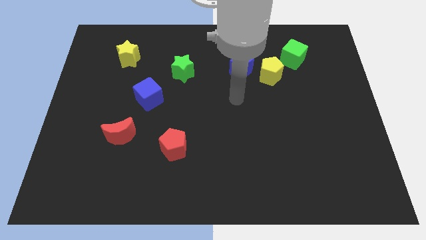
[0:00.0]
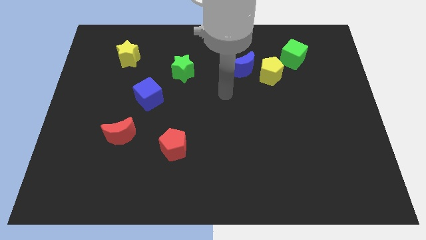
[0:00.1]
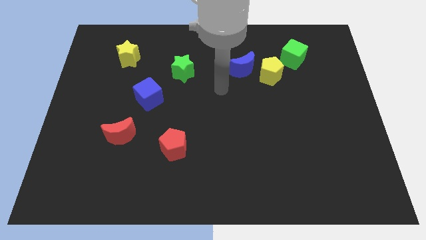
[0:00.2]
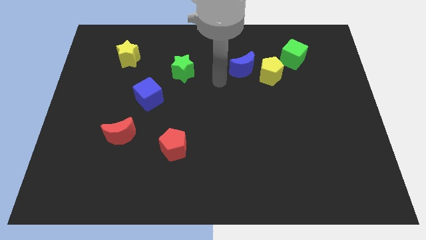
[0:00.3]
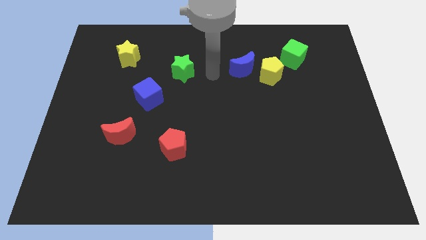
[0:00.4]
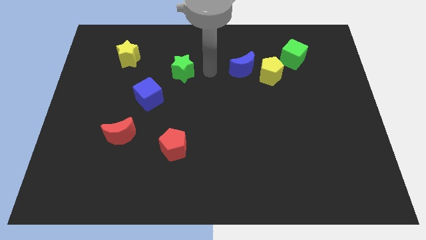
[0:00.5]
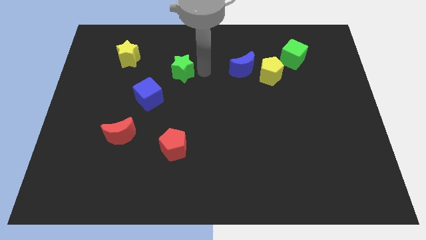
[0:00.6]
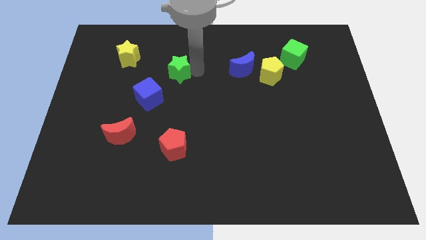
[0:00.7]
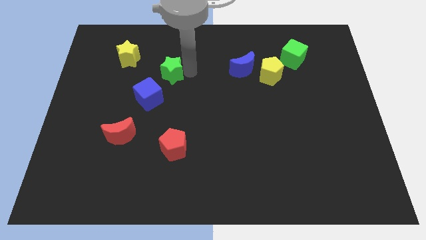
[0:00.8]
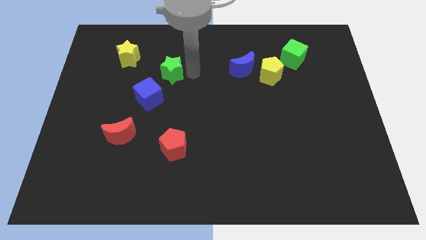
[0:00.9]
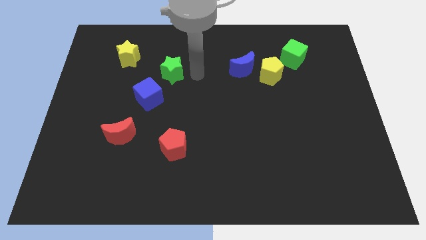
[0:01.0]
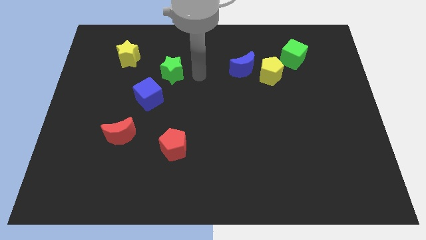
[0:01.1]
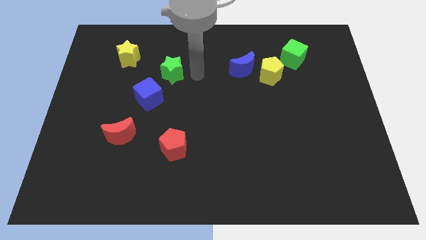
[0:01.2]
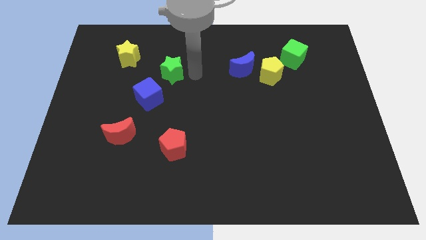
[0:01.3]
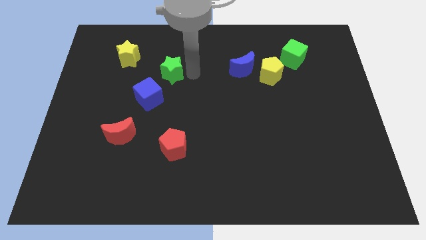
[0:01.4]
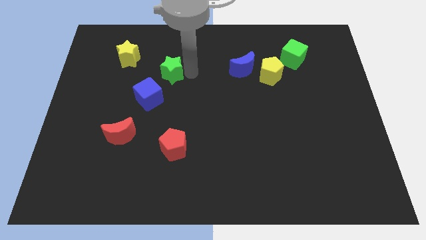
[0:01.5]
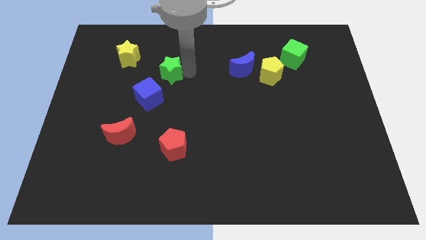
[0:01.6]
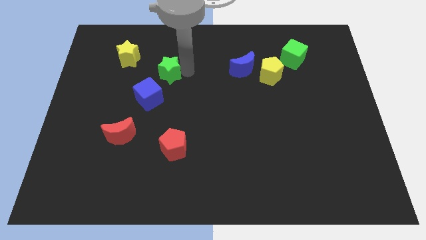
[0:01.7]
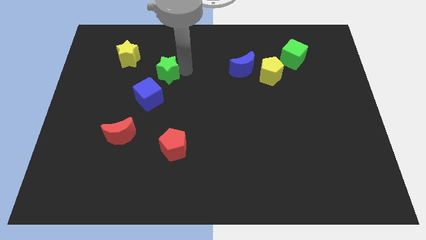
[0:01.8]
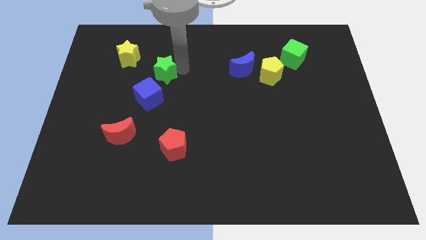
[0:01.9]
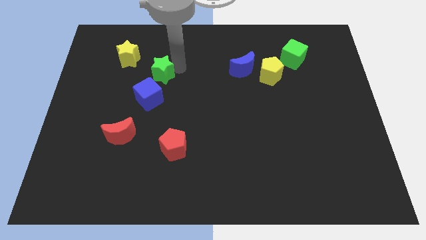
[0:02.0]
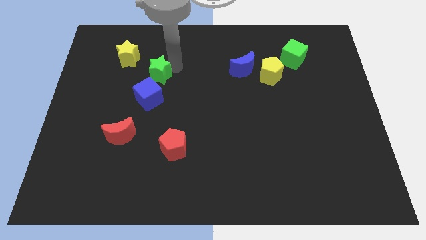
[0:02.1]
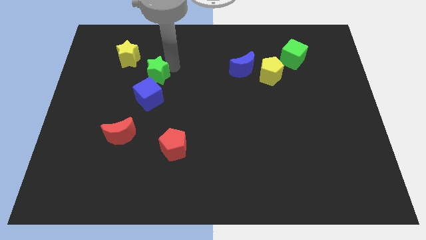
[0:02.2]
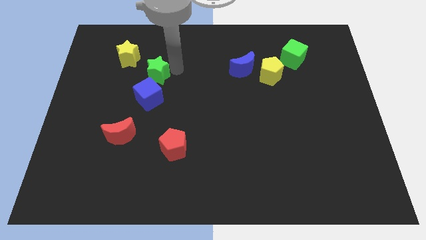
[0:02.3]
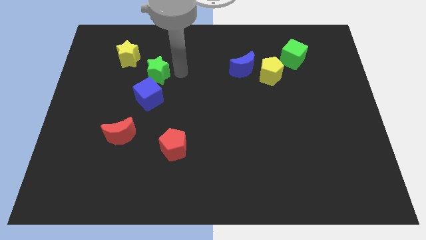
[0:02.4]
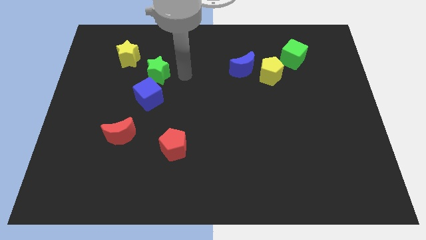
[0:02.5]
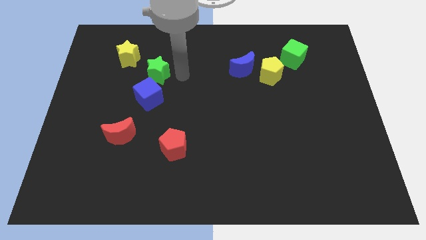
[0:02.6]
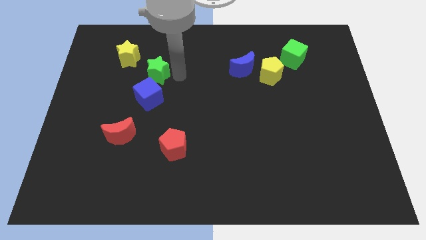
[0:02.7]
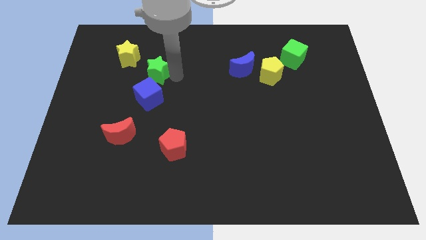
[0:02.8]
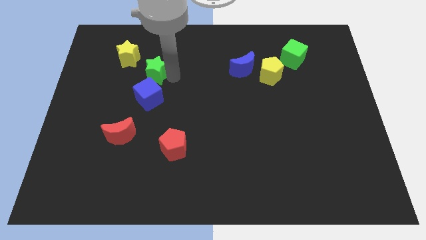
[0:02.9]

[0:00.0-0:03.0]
slightly slide the green star to the left

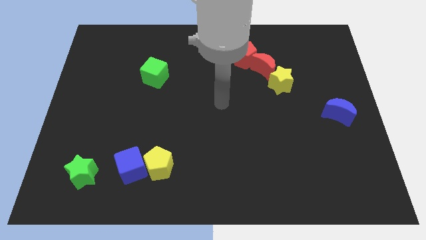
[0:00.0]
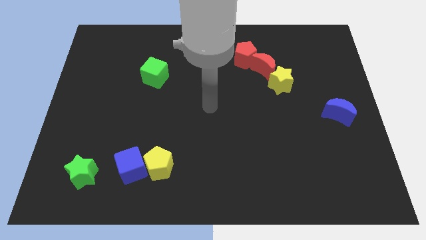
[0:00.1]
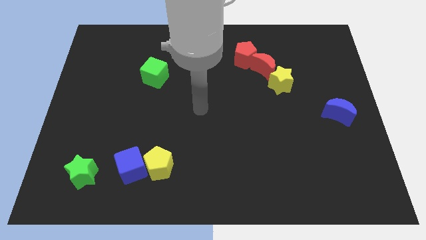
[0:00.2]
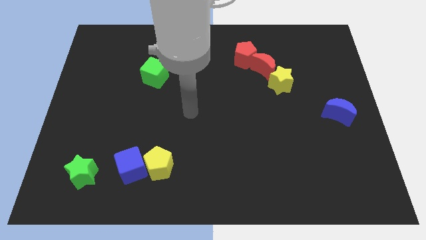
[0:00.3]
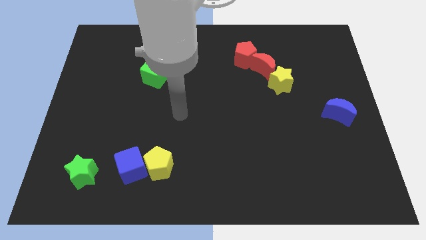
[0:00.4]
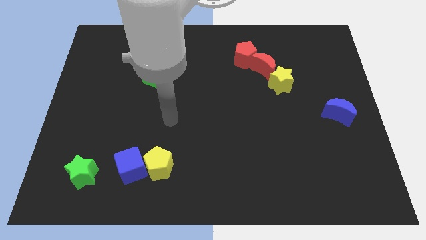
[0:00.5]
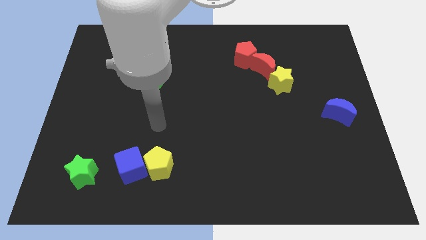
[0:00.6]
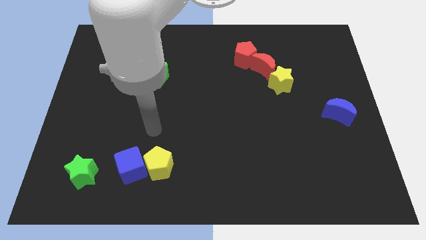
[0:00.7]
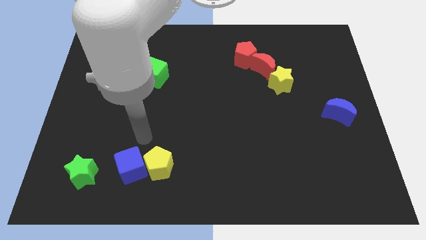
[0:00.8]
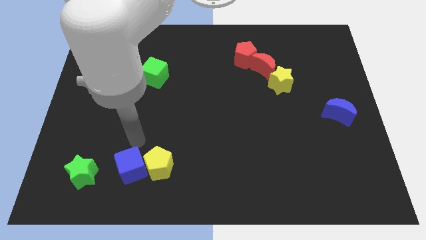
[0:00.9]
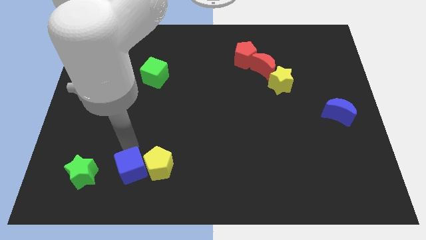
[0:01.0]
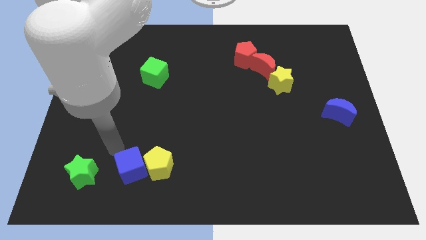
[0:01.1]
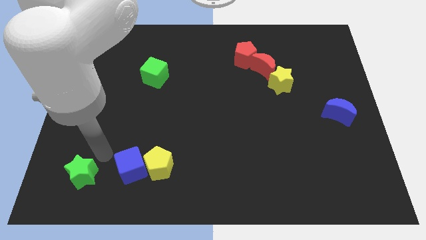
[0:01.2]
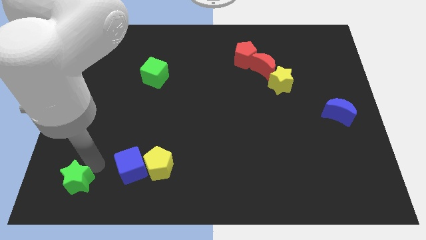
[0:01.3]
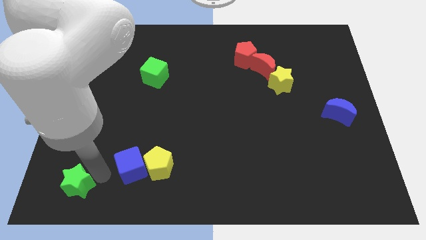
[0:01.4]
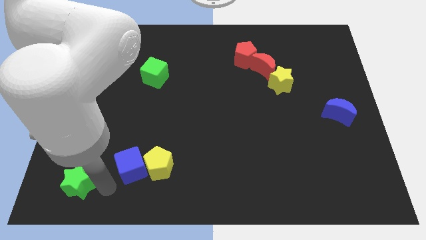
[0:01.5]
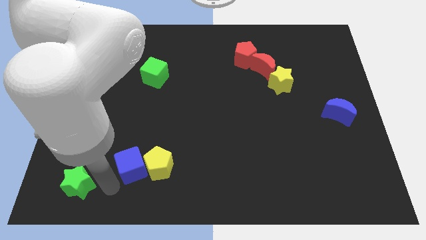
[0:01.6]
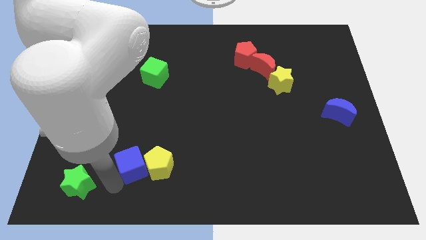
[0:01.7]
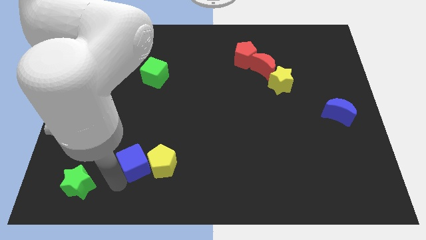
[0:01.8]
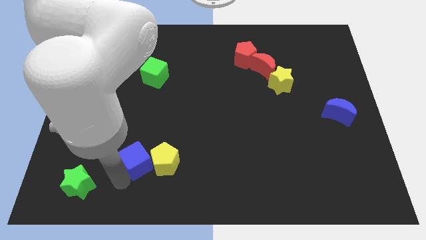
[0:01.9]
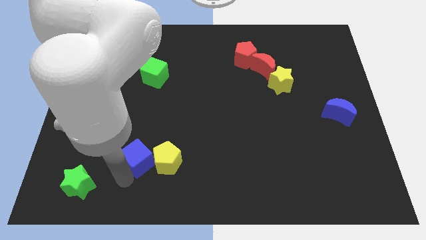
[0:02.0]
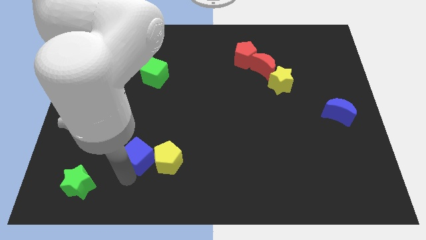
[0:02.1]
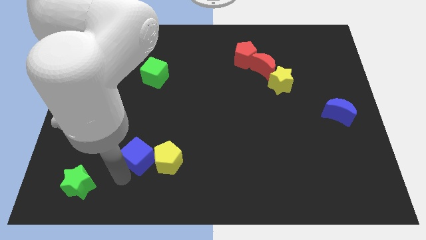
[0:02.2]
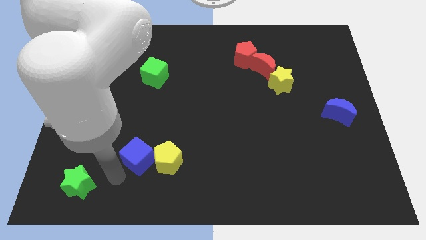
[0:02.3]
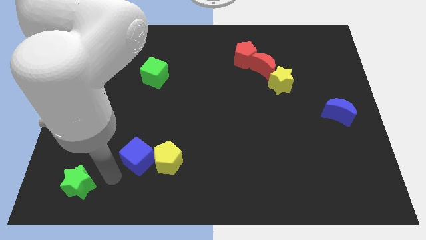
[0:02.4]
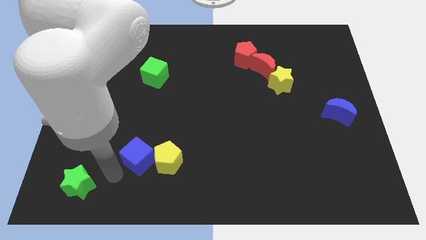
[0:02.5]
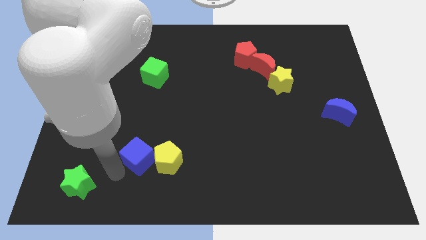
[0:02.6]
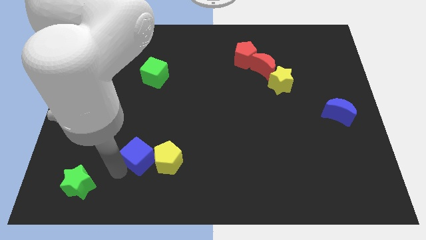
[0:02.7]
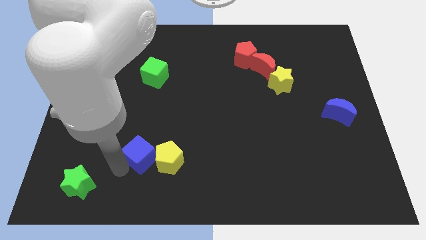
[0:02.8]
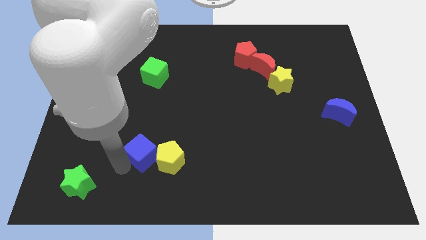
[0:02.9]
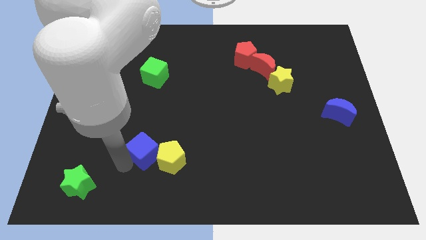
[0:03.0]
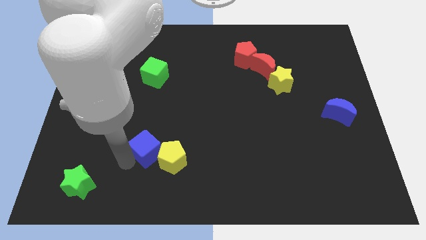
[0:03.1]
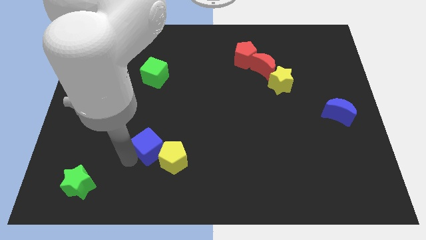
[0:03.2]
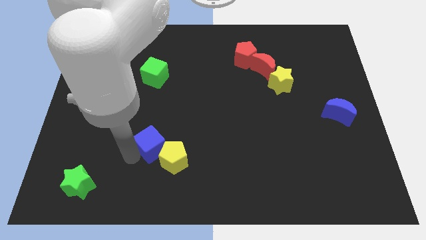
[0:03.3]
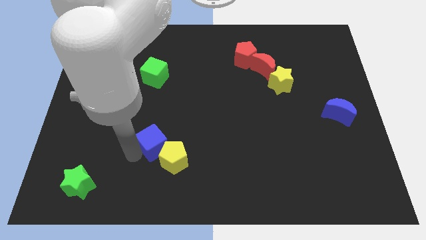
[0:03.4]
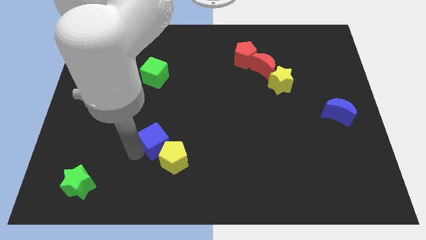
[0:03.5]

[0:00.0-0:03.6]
move the blue cube diagonally up and right slightly

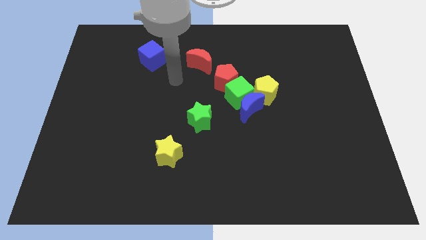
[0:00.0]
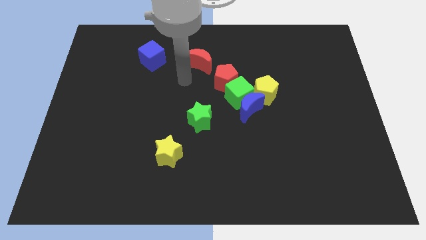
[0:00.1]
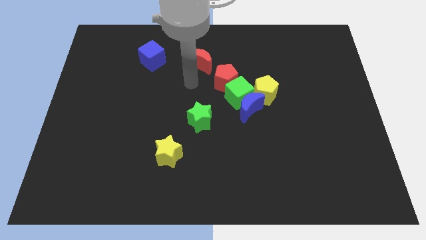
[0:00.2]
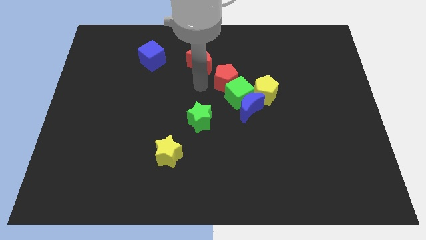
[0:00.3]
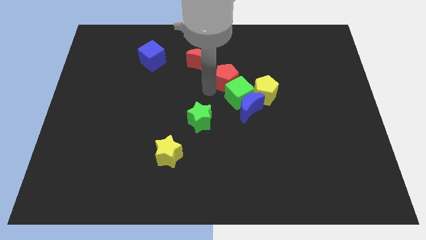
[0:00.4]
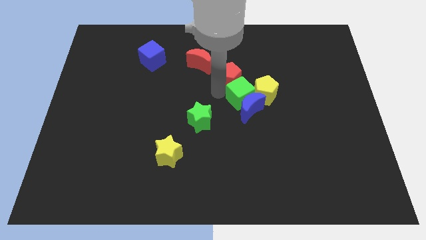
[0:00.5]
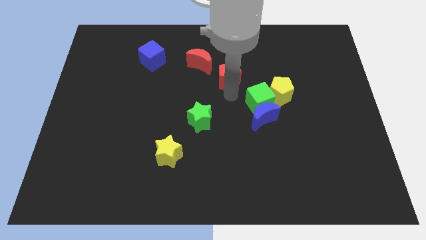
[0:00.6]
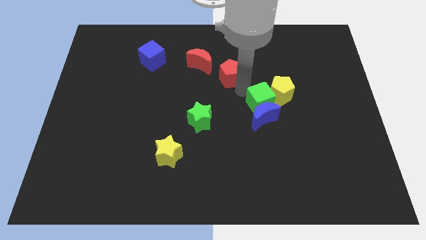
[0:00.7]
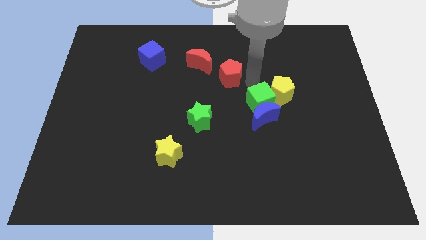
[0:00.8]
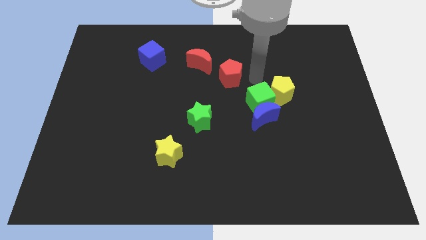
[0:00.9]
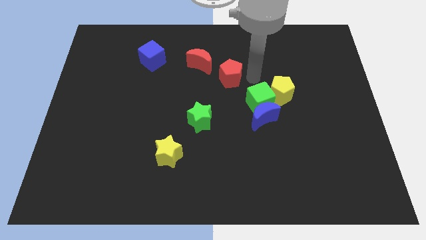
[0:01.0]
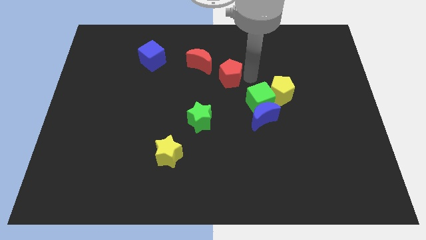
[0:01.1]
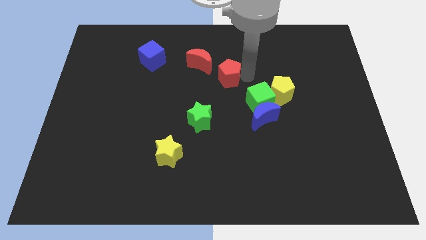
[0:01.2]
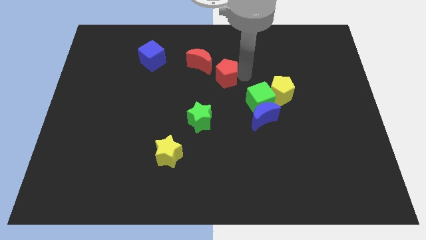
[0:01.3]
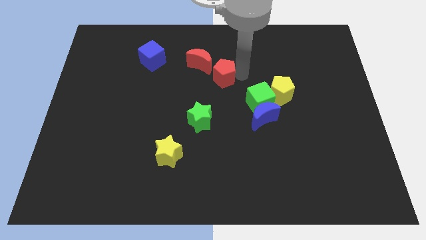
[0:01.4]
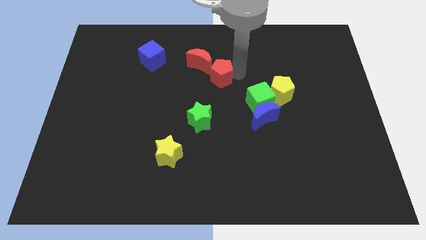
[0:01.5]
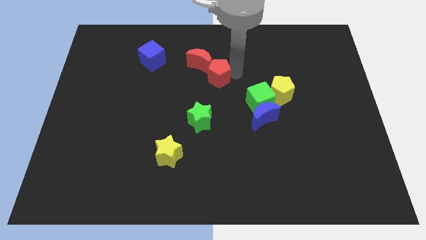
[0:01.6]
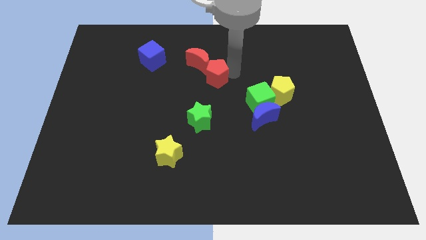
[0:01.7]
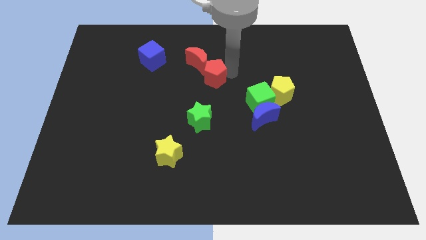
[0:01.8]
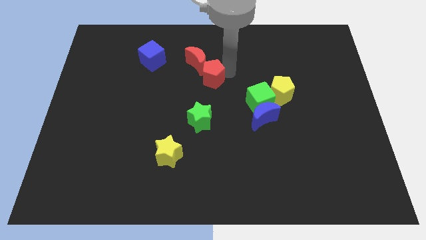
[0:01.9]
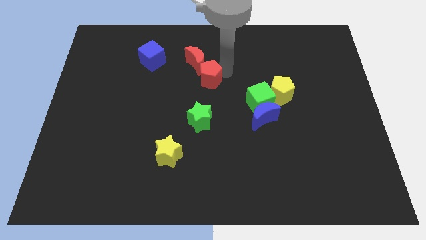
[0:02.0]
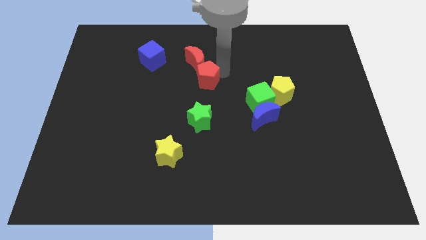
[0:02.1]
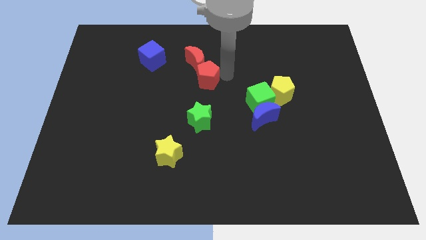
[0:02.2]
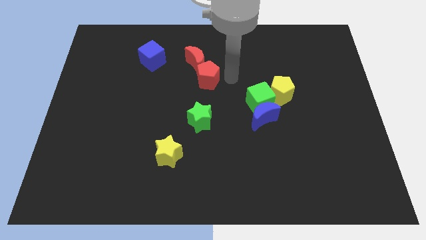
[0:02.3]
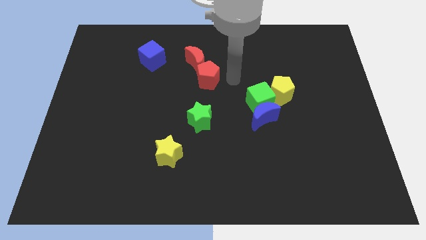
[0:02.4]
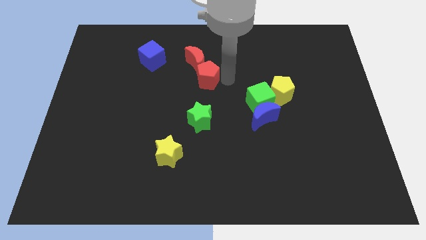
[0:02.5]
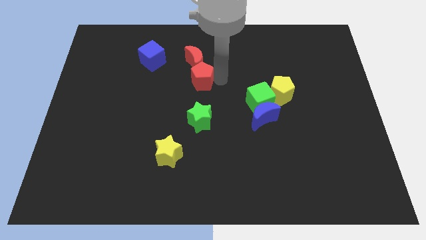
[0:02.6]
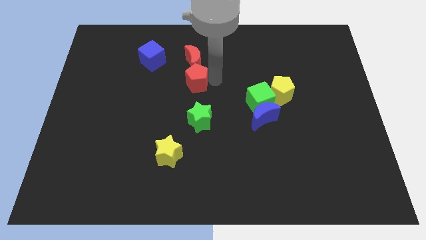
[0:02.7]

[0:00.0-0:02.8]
slightly push the red pentagon left
